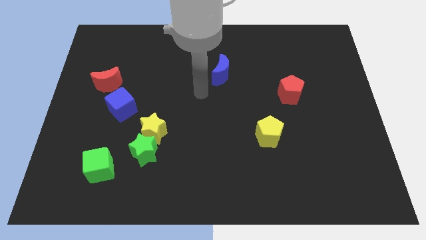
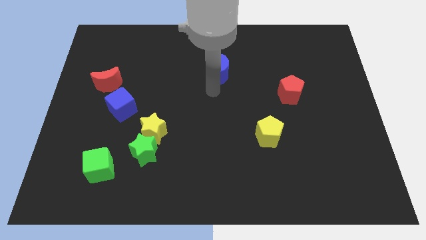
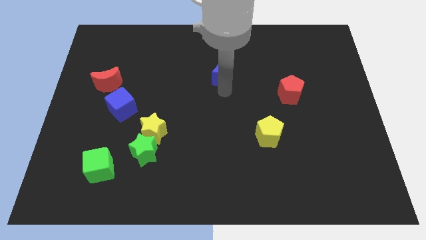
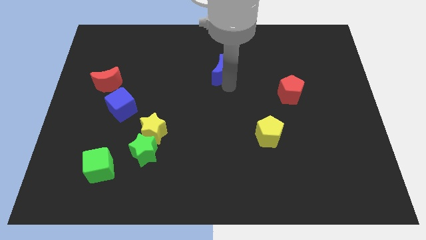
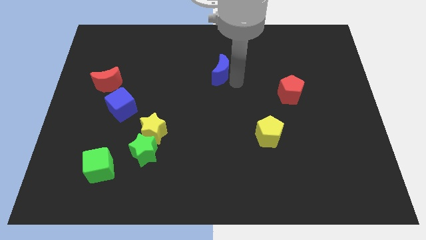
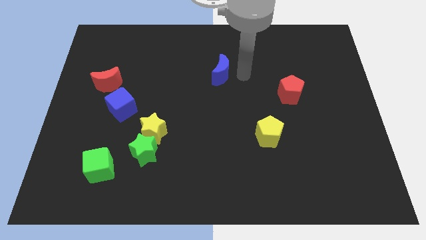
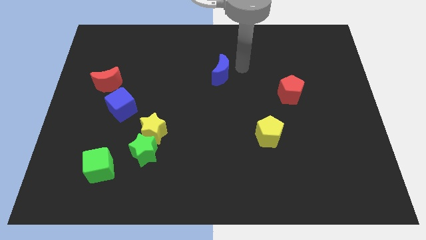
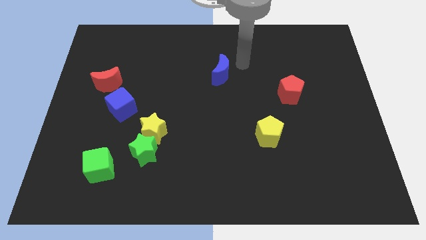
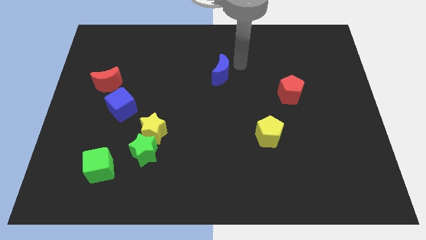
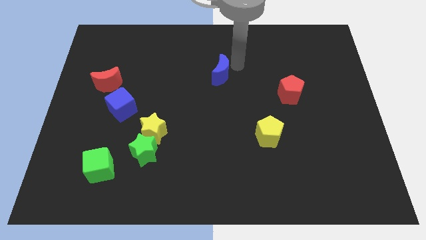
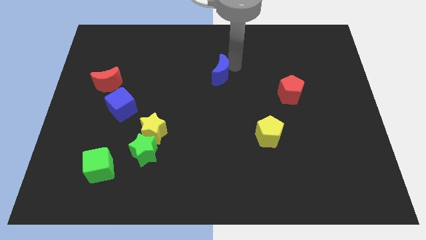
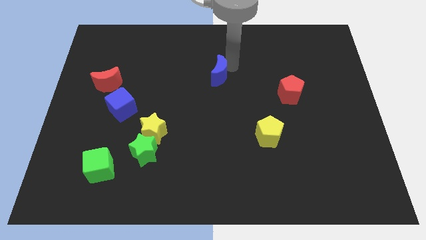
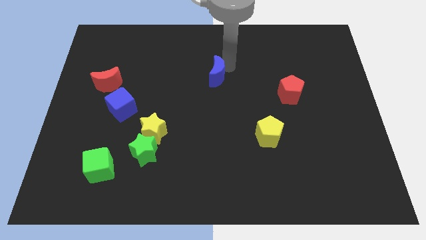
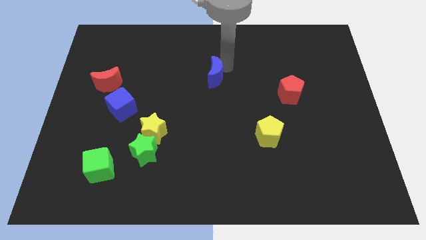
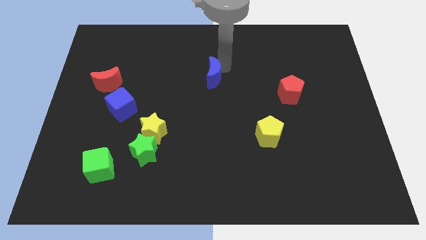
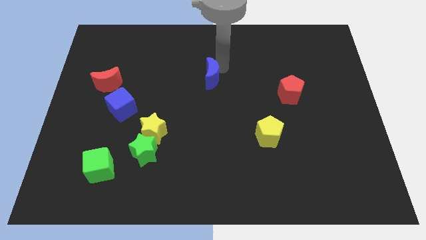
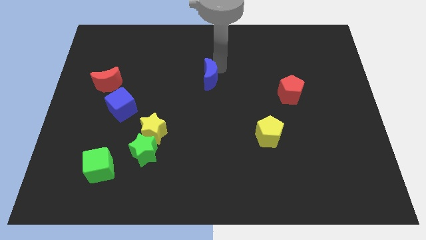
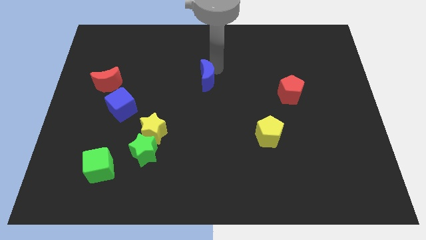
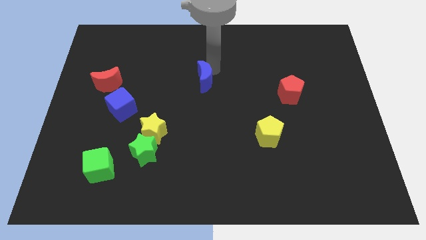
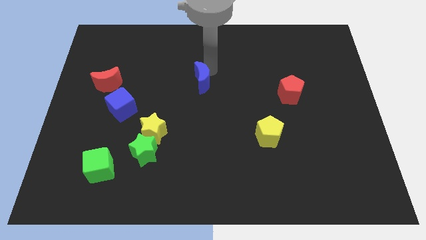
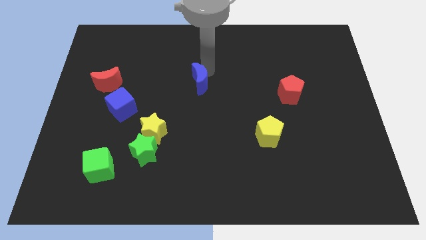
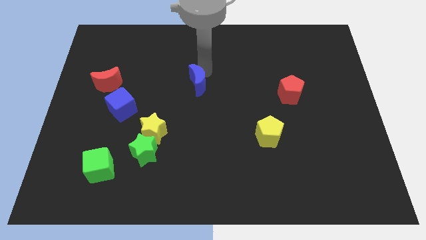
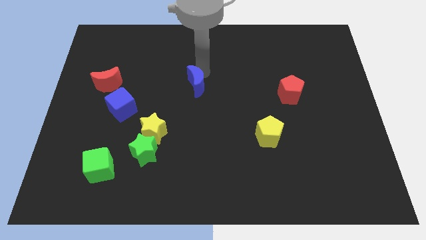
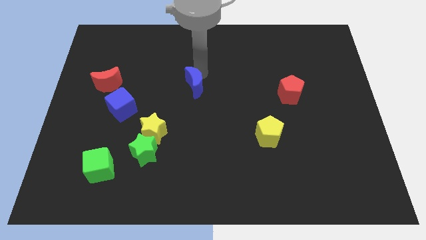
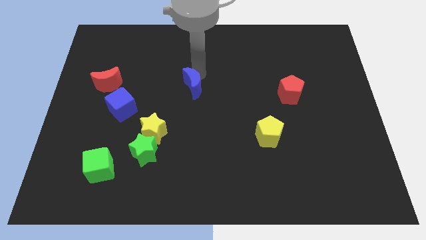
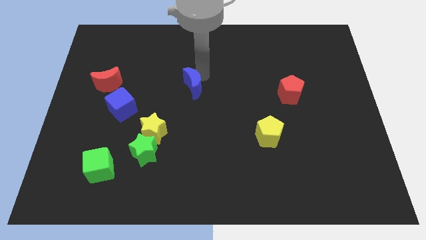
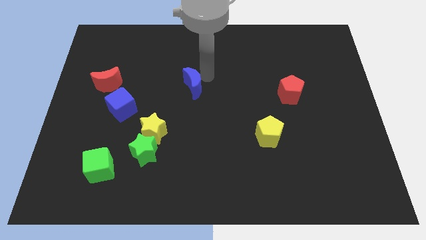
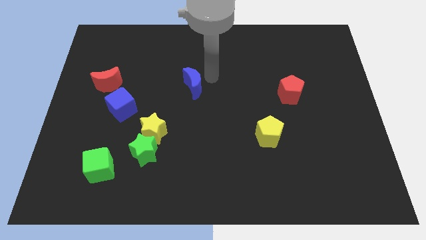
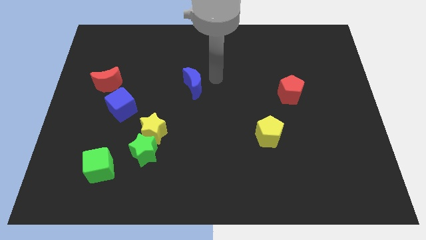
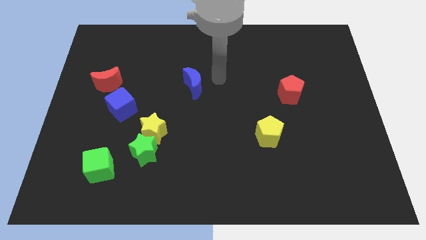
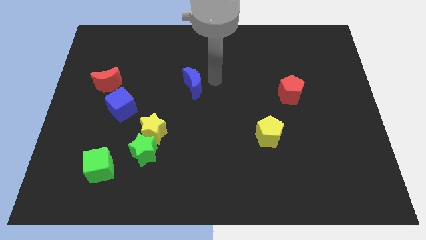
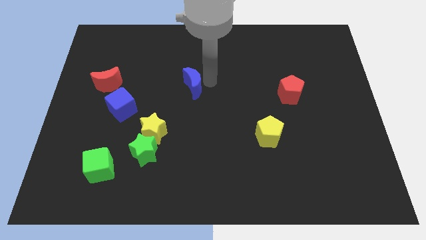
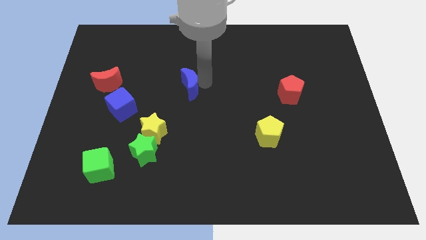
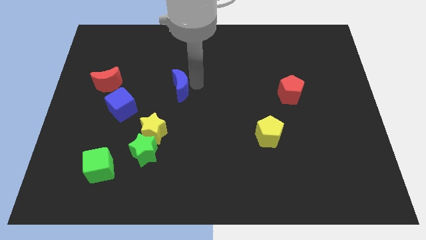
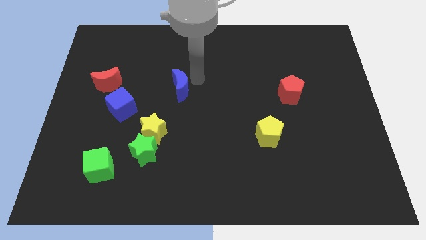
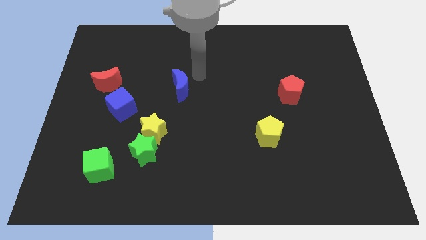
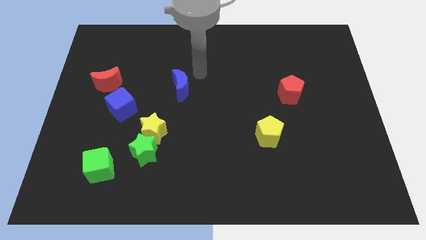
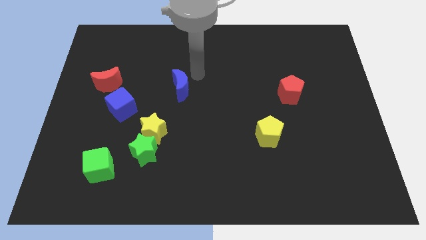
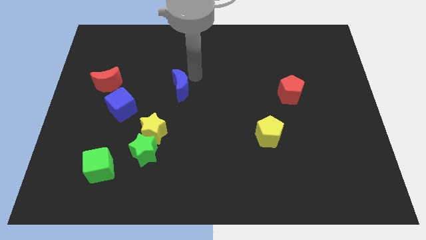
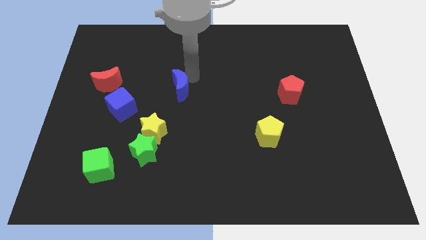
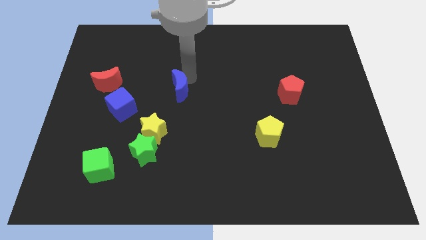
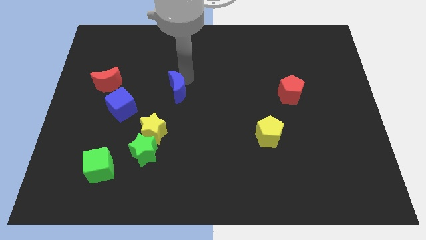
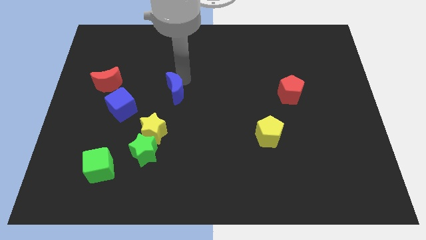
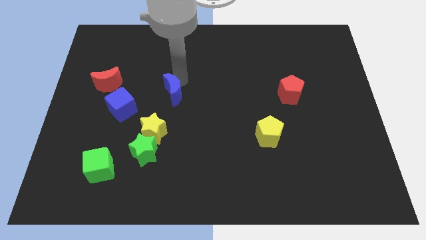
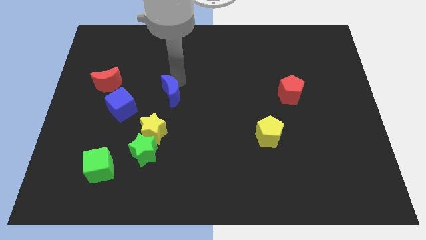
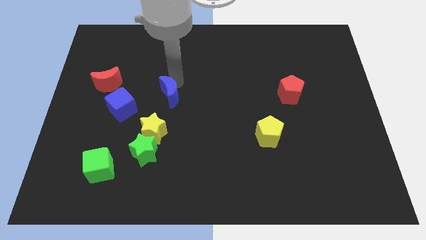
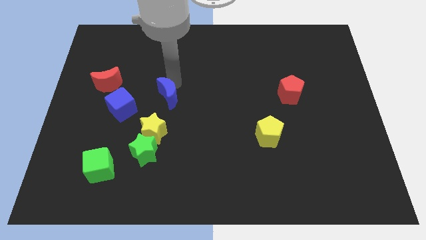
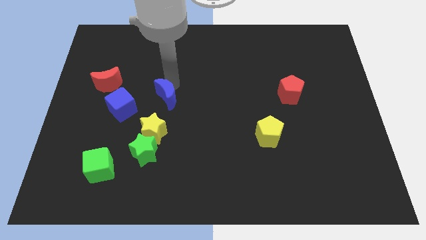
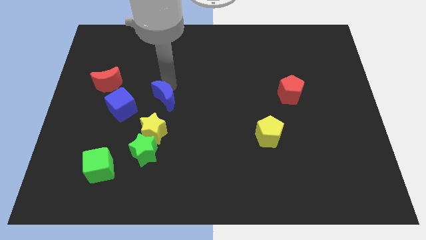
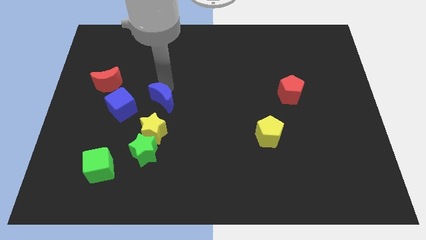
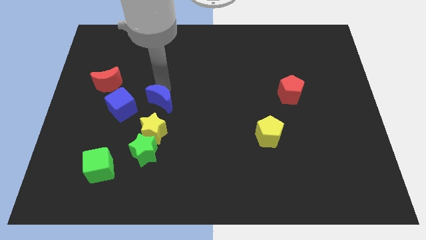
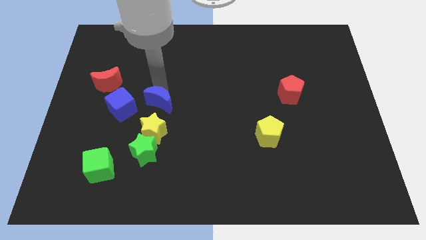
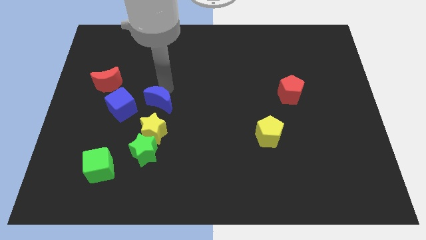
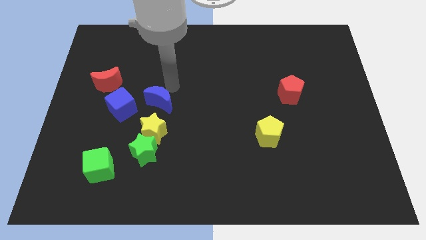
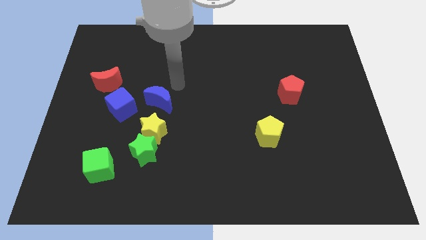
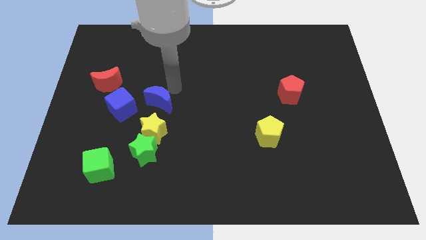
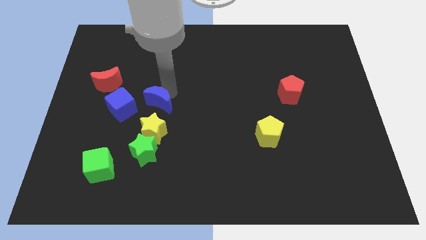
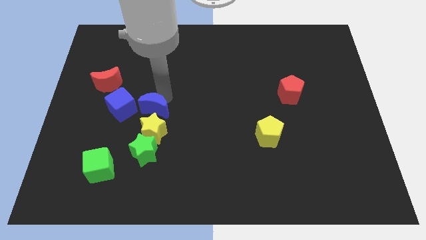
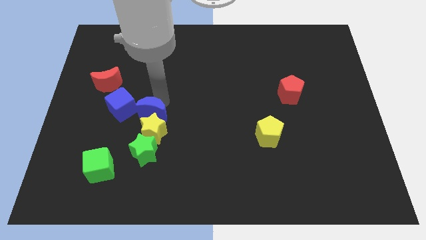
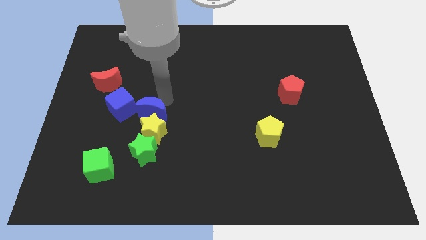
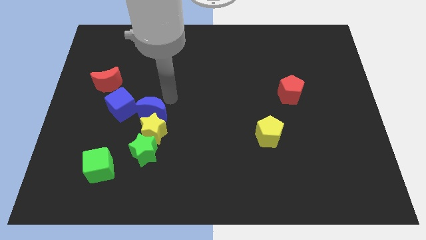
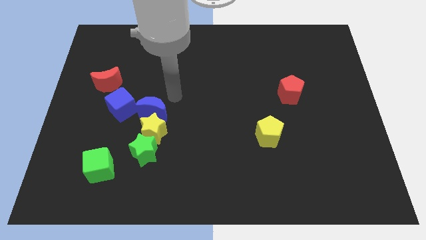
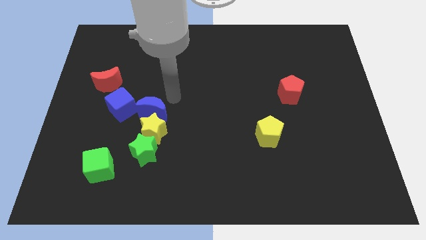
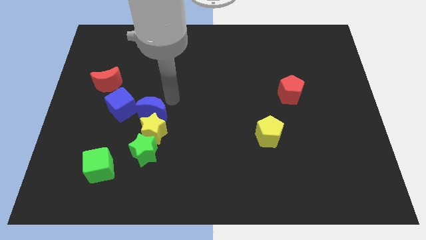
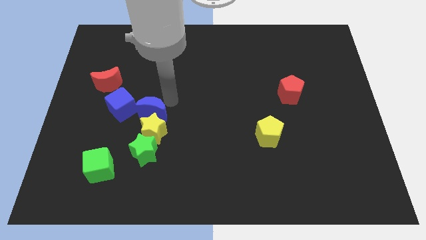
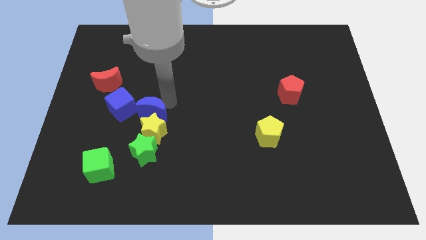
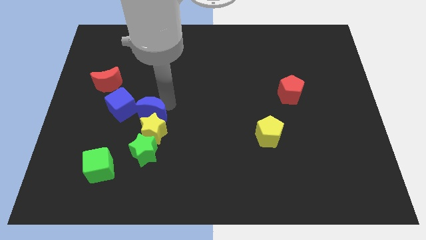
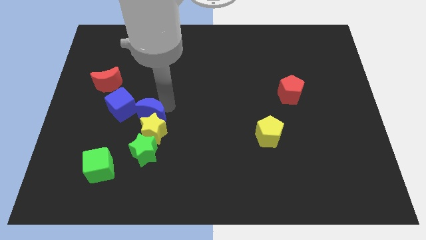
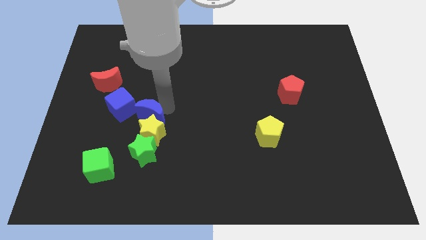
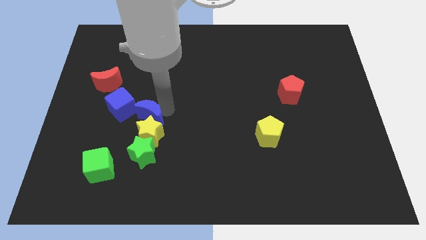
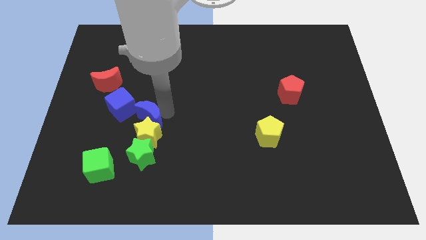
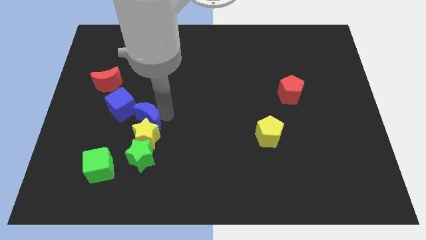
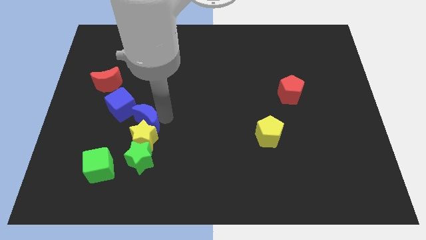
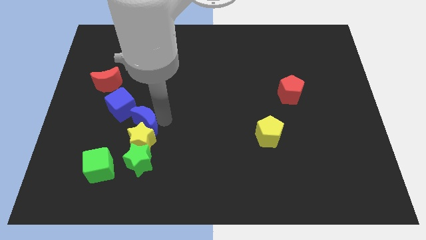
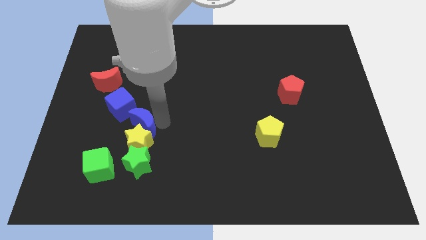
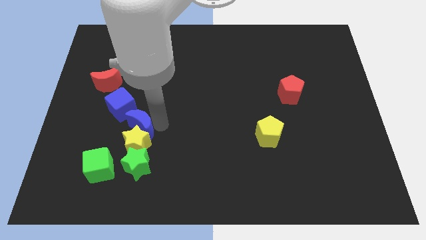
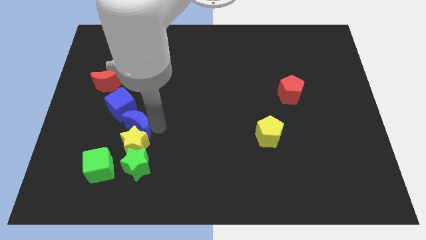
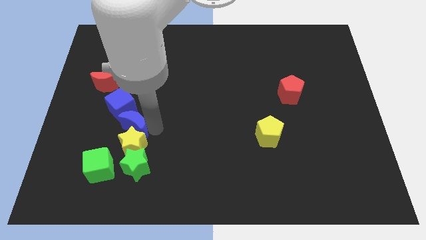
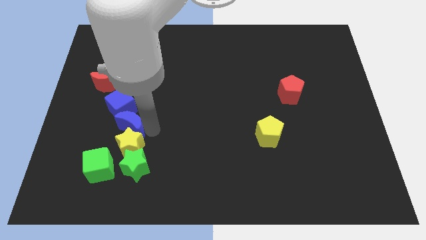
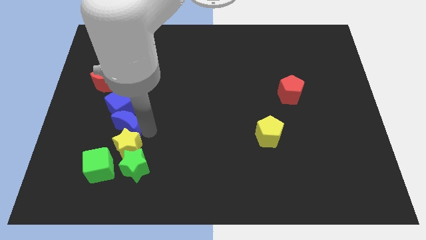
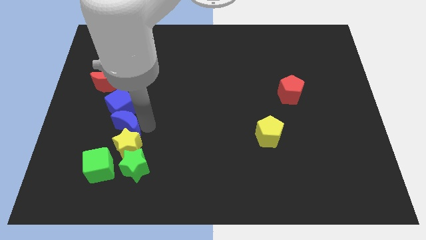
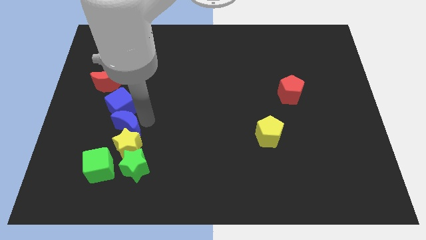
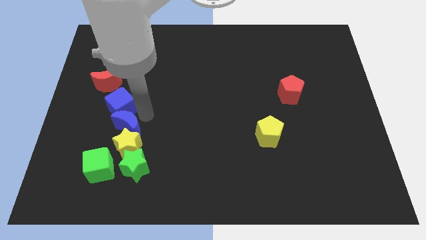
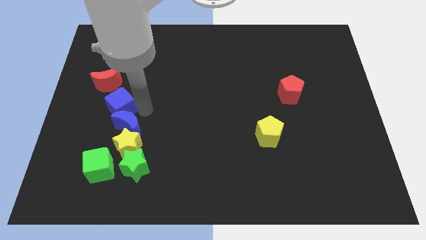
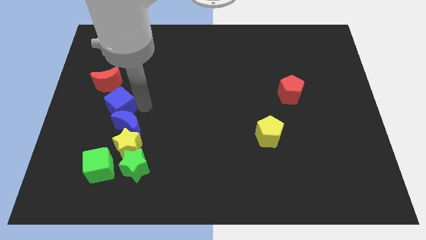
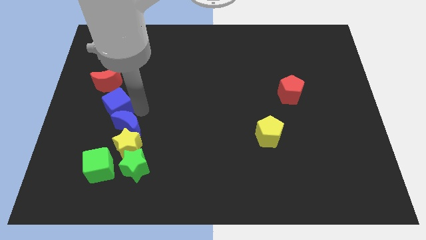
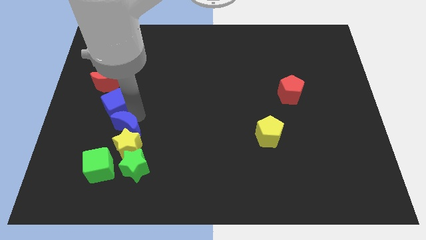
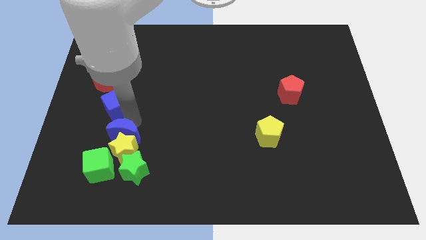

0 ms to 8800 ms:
push the blue moon to the top left side of the green star
